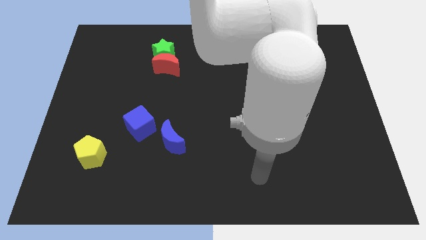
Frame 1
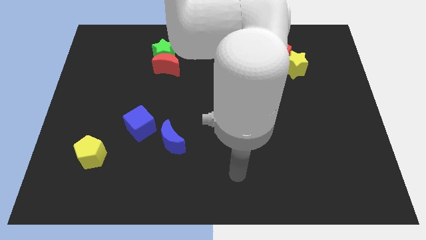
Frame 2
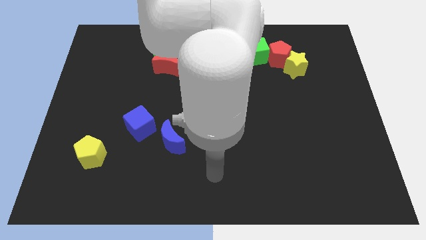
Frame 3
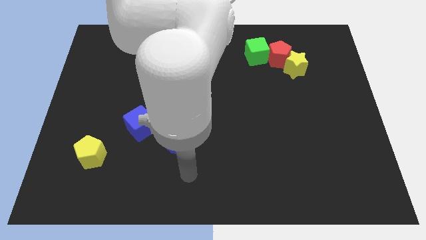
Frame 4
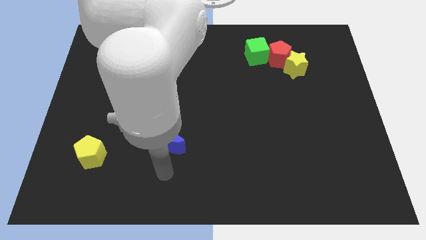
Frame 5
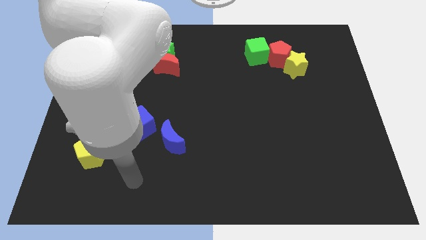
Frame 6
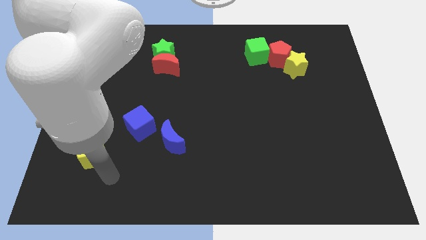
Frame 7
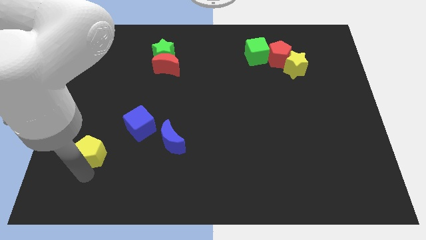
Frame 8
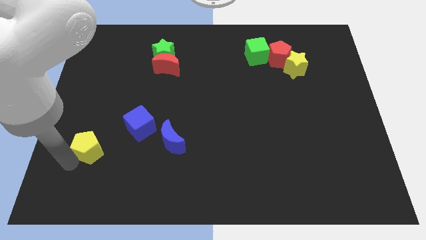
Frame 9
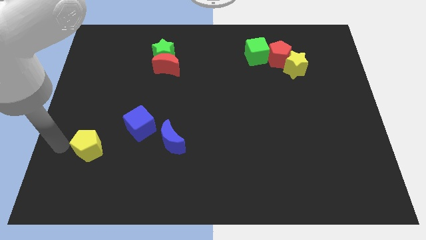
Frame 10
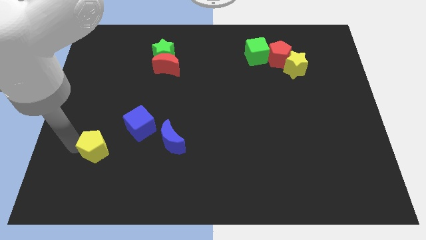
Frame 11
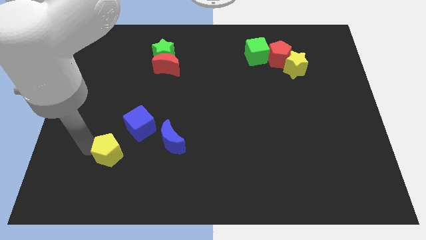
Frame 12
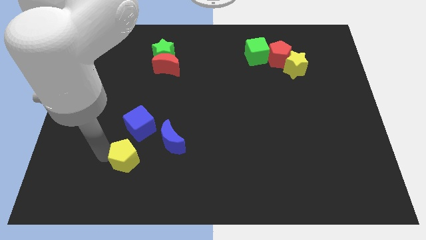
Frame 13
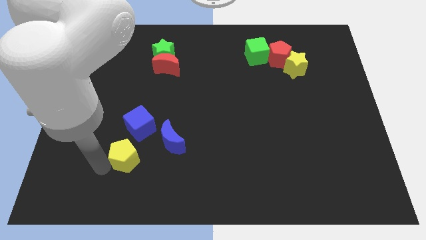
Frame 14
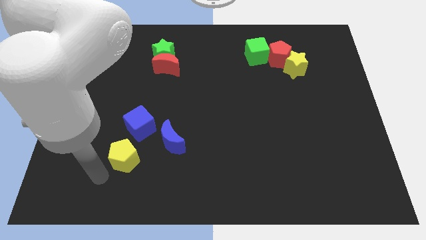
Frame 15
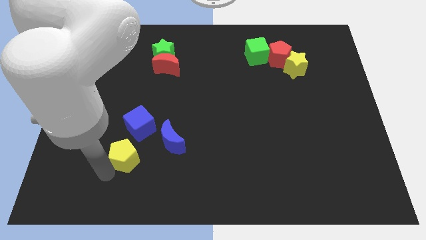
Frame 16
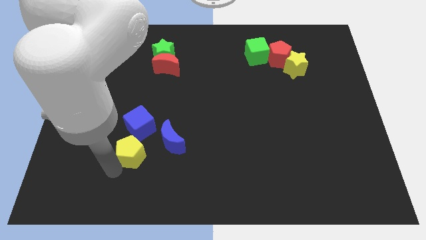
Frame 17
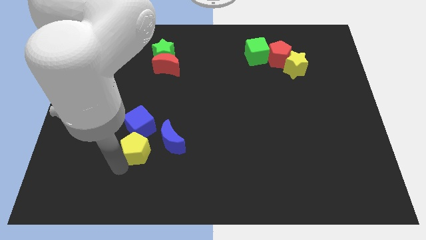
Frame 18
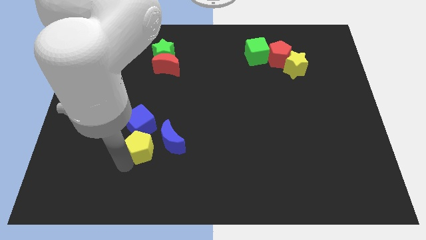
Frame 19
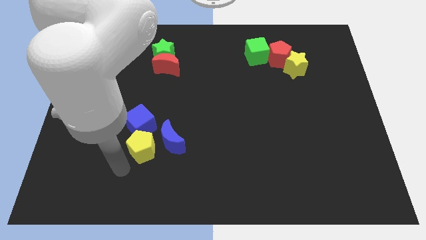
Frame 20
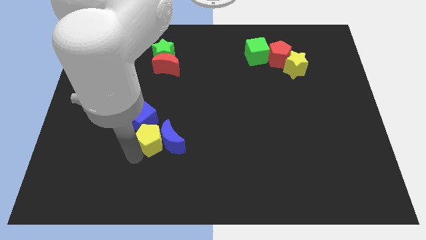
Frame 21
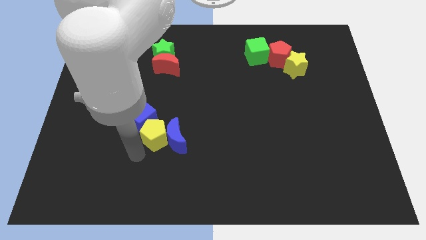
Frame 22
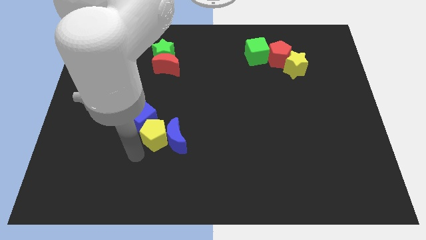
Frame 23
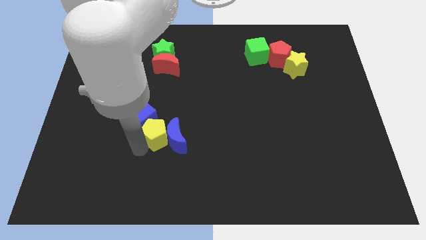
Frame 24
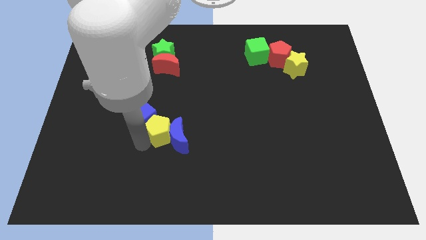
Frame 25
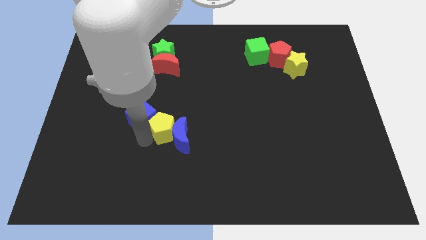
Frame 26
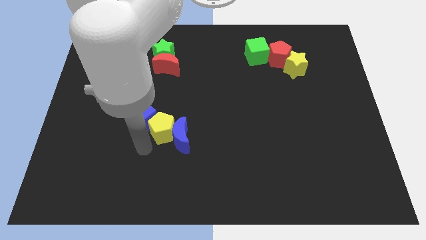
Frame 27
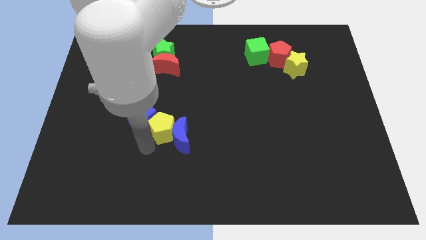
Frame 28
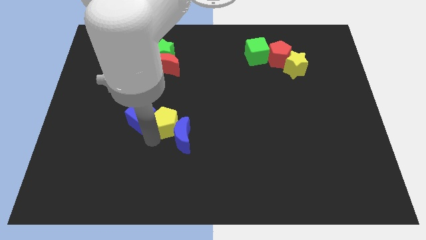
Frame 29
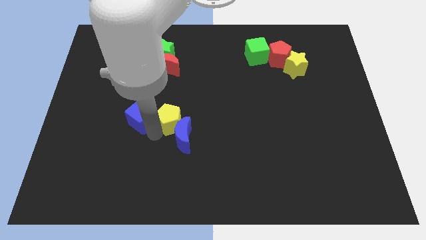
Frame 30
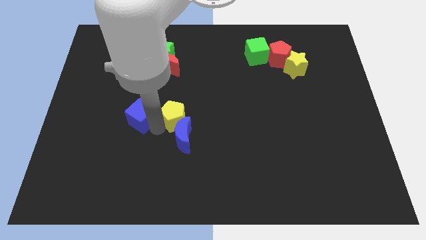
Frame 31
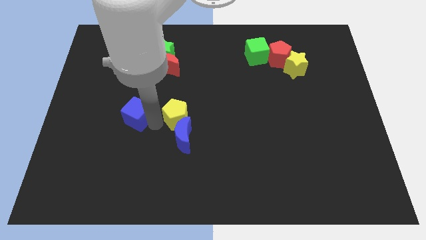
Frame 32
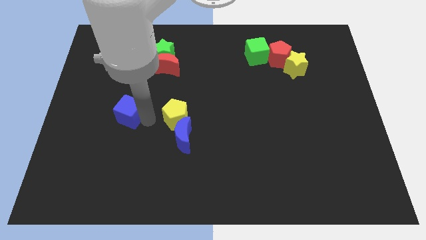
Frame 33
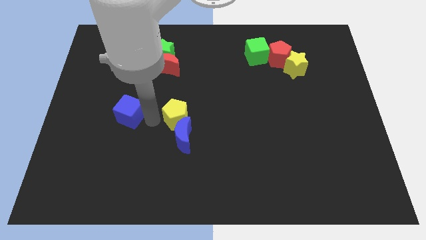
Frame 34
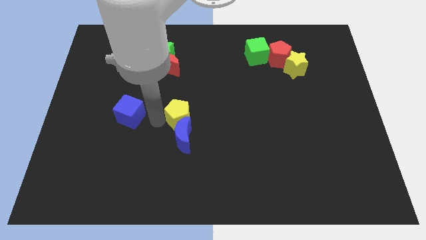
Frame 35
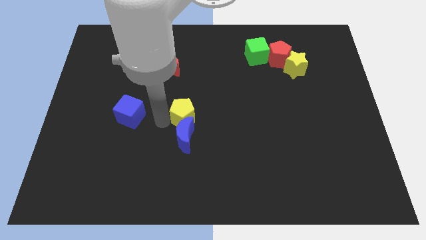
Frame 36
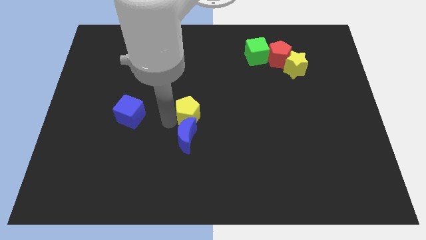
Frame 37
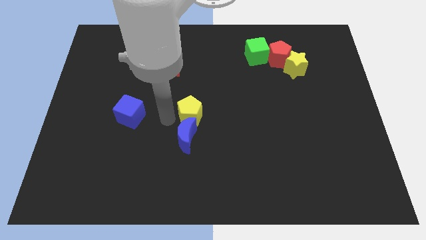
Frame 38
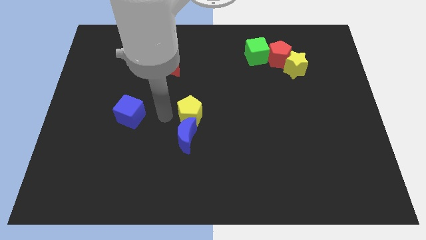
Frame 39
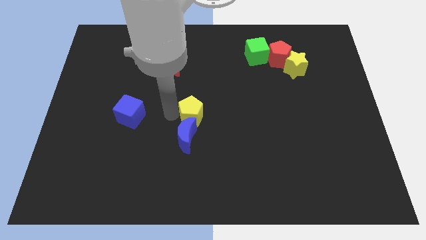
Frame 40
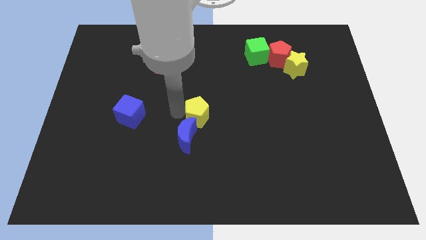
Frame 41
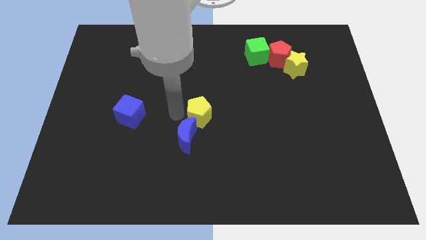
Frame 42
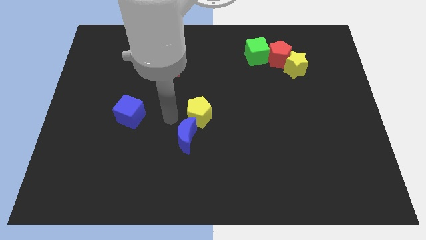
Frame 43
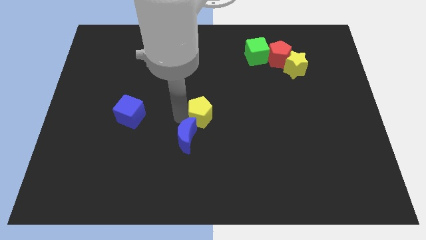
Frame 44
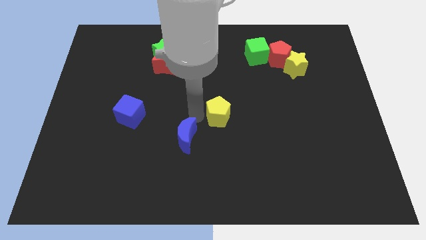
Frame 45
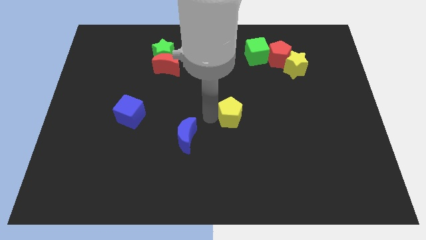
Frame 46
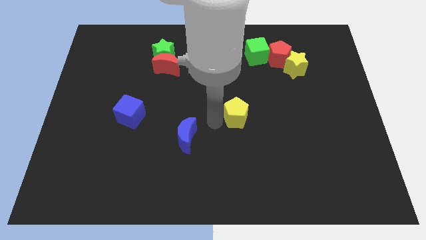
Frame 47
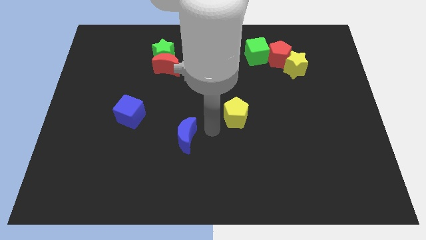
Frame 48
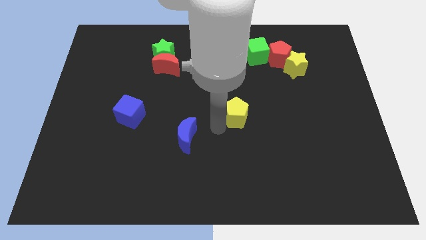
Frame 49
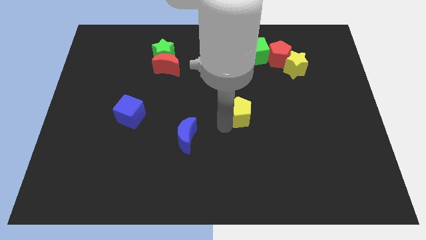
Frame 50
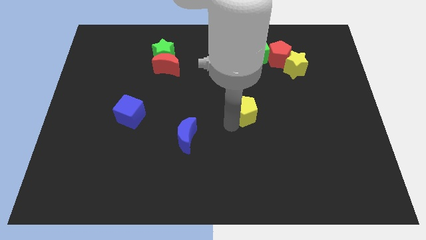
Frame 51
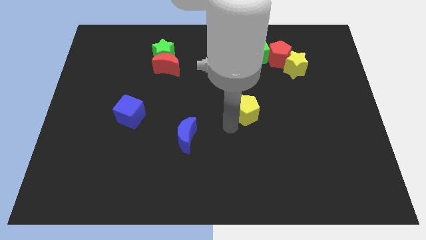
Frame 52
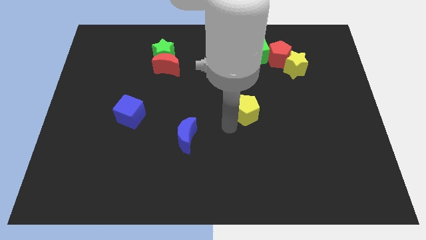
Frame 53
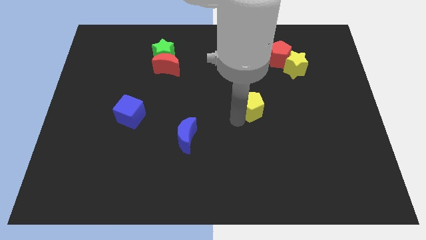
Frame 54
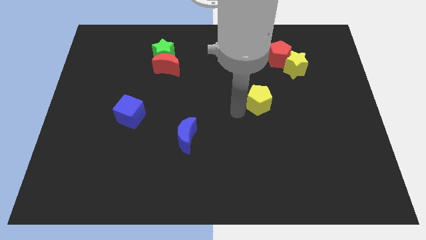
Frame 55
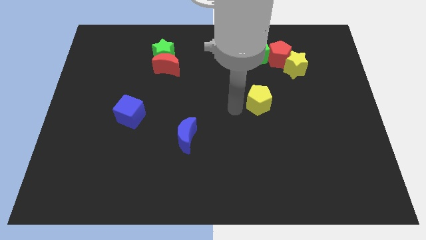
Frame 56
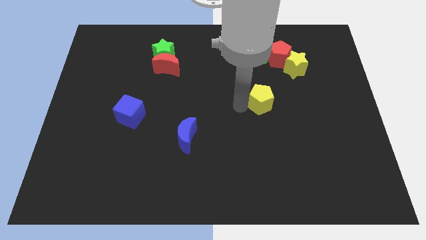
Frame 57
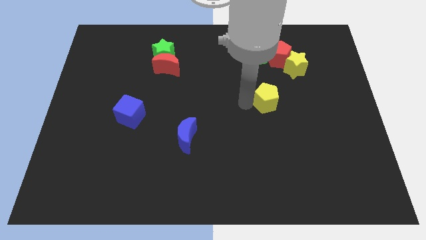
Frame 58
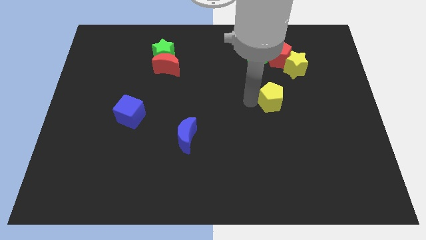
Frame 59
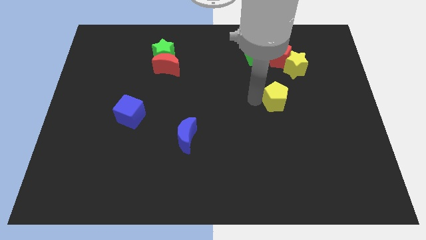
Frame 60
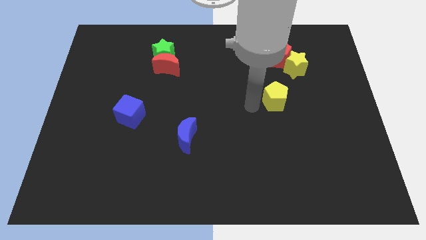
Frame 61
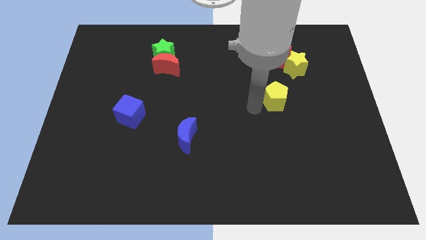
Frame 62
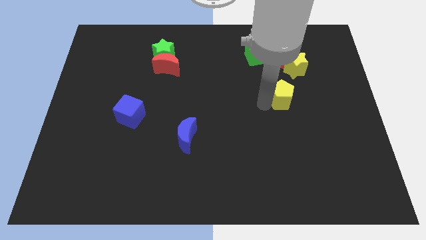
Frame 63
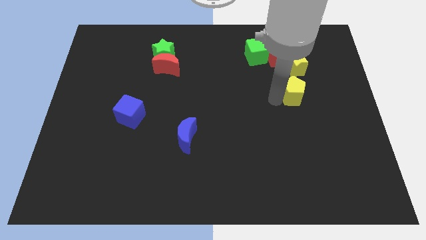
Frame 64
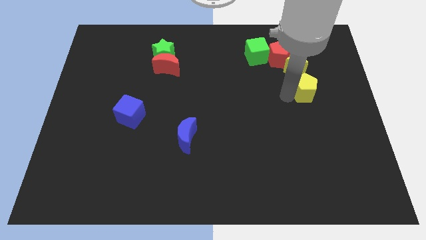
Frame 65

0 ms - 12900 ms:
move the yellow pentagon to the bottom right side of the yellow star

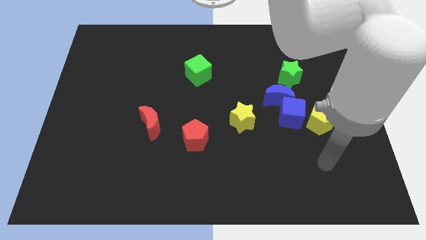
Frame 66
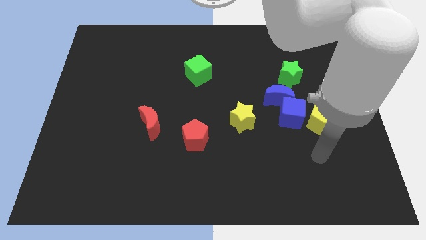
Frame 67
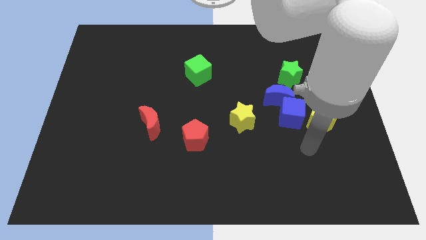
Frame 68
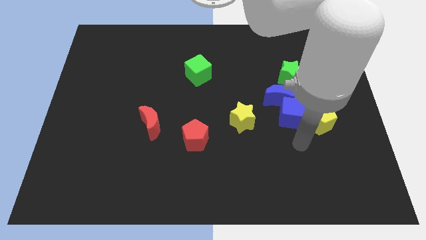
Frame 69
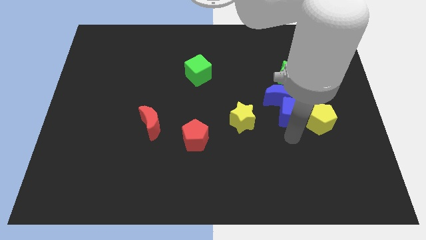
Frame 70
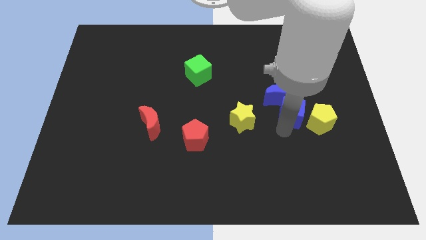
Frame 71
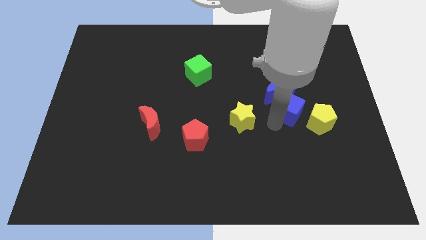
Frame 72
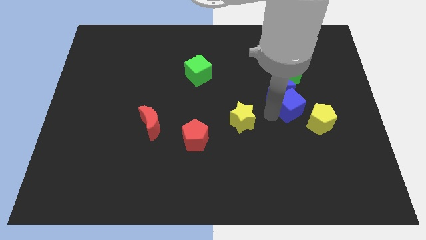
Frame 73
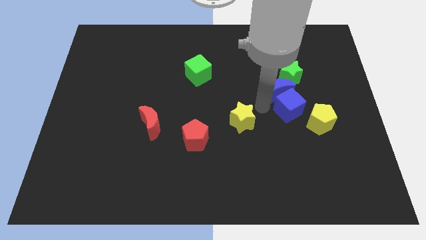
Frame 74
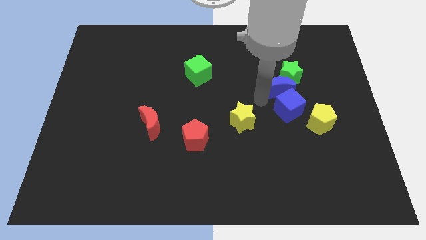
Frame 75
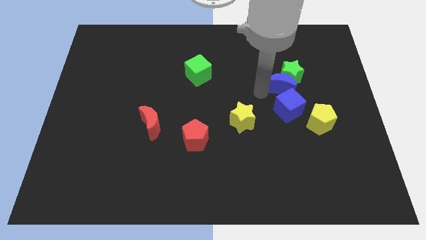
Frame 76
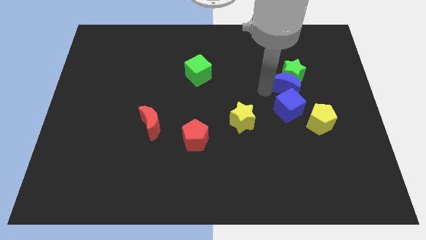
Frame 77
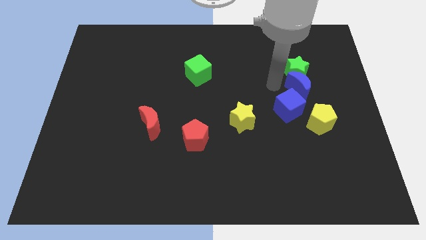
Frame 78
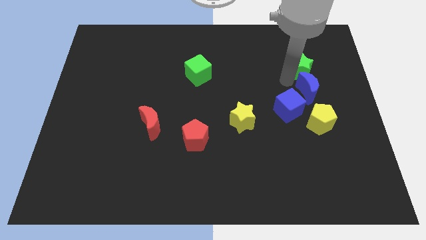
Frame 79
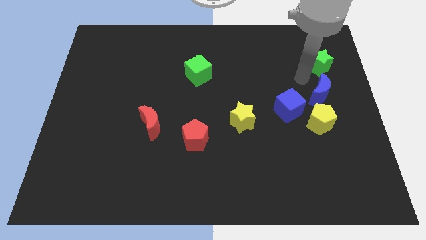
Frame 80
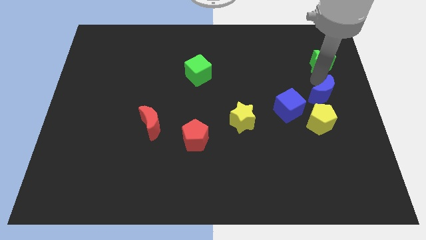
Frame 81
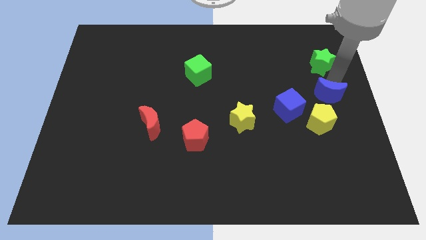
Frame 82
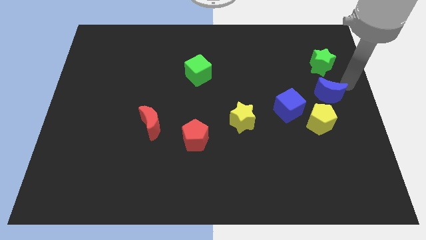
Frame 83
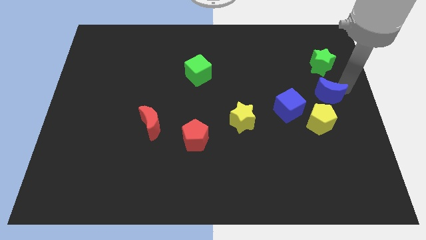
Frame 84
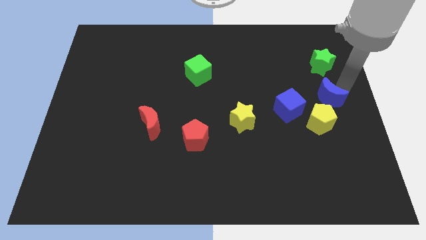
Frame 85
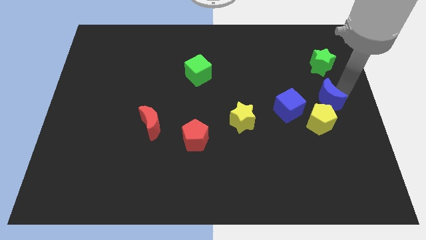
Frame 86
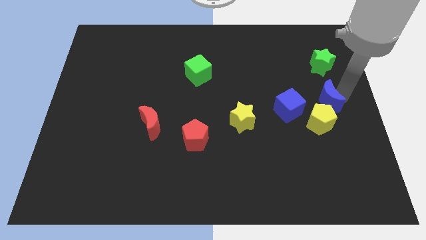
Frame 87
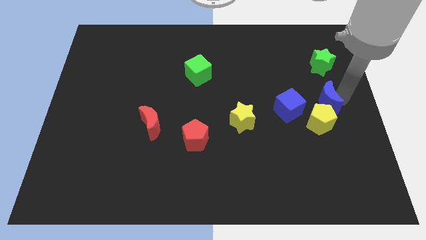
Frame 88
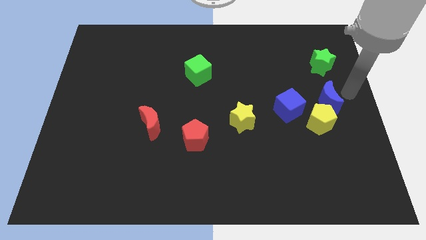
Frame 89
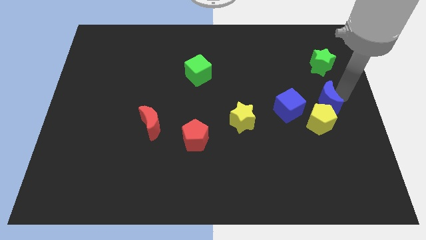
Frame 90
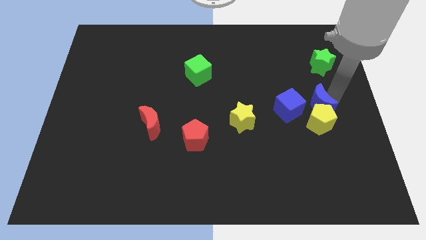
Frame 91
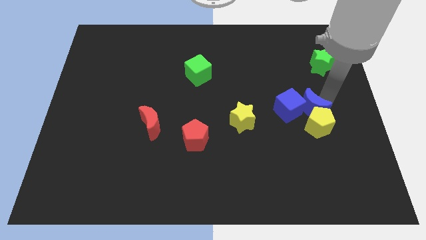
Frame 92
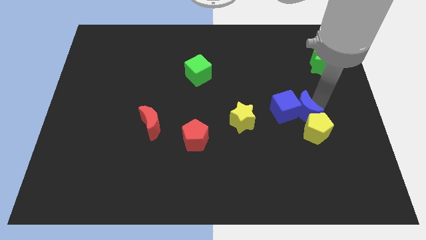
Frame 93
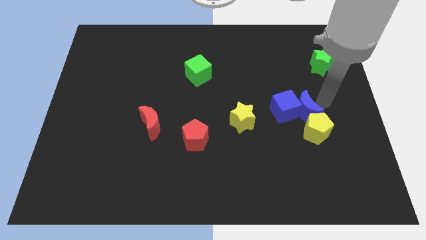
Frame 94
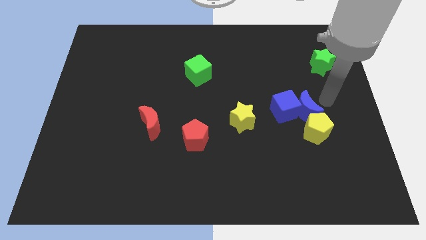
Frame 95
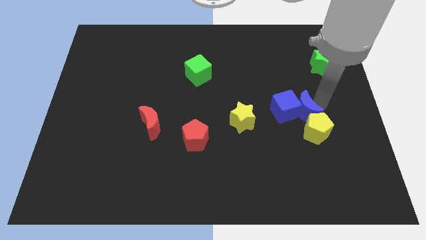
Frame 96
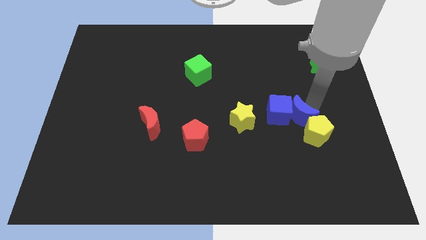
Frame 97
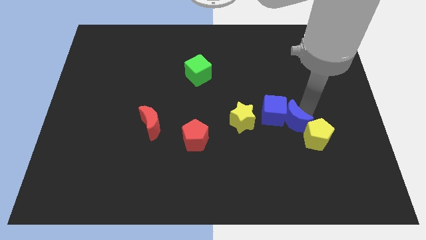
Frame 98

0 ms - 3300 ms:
slide the blue moon to the left of the yellow pentagon
